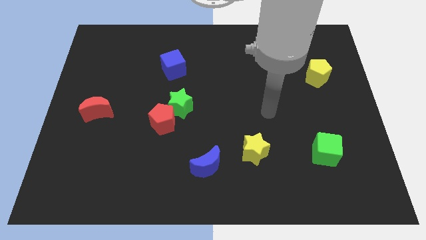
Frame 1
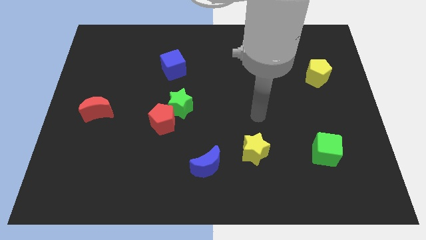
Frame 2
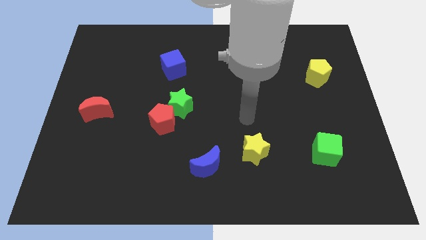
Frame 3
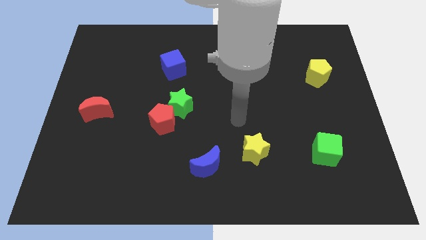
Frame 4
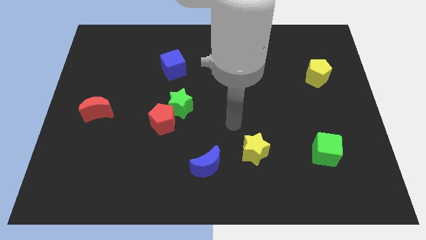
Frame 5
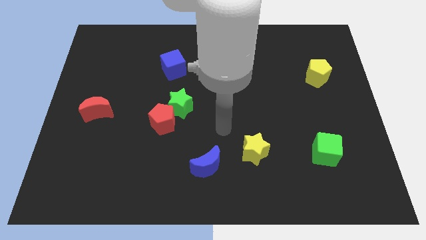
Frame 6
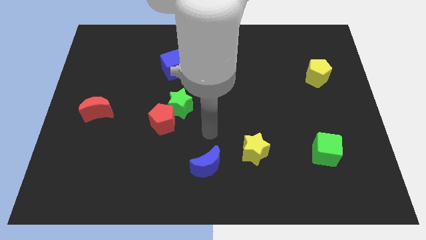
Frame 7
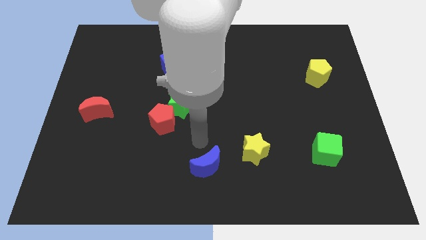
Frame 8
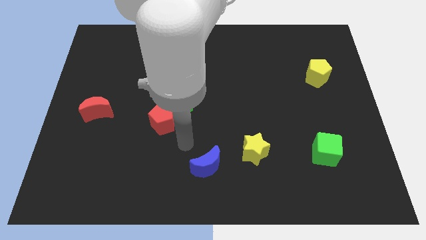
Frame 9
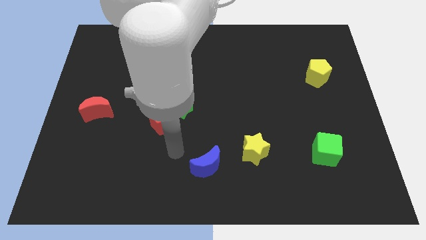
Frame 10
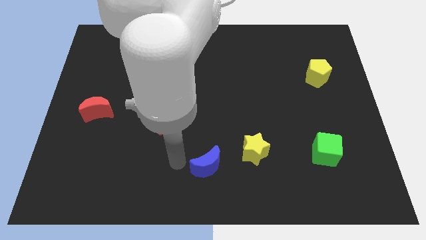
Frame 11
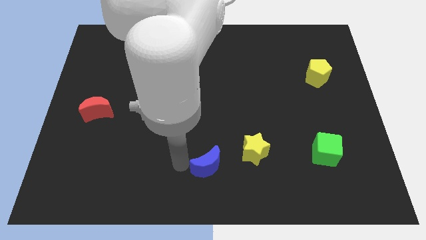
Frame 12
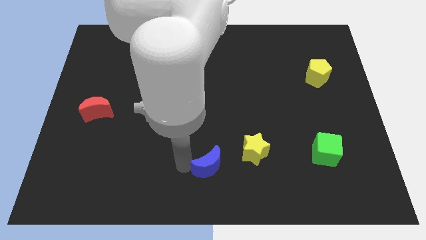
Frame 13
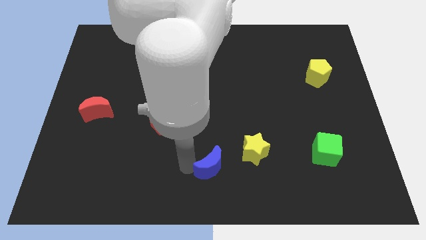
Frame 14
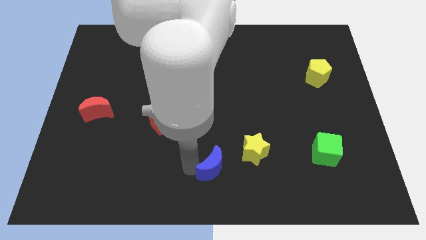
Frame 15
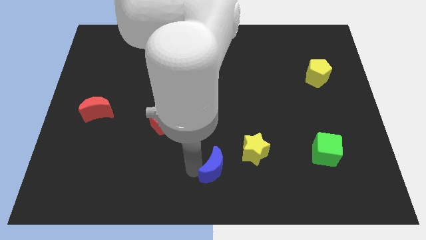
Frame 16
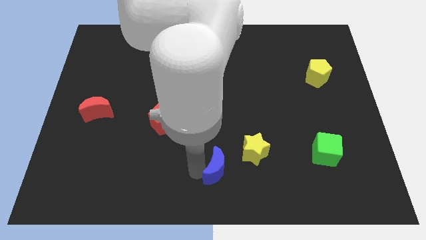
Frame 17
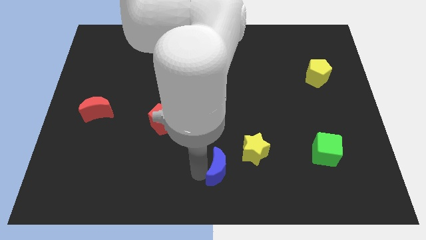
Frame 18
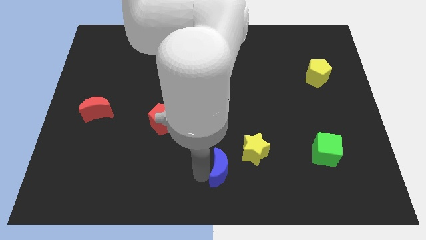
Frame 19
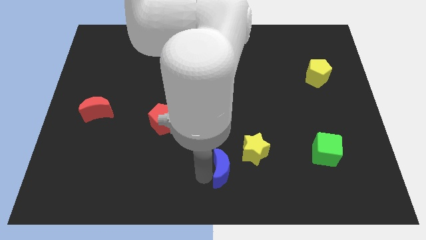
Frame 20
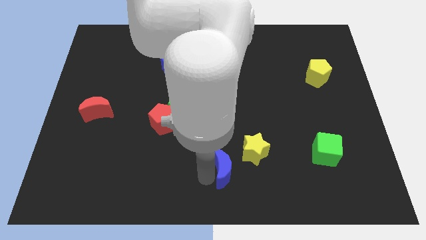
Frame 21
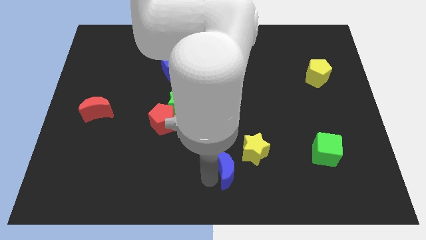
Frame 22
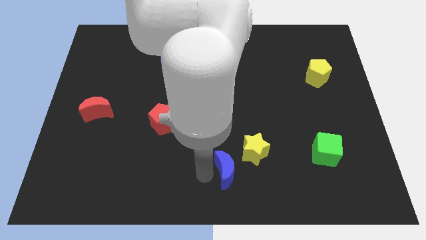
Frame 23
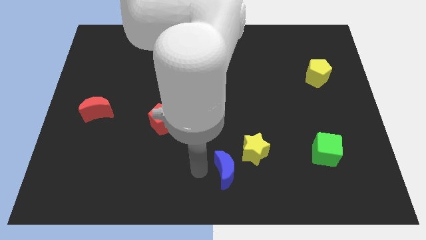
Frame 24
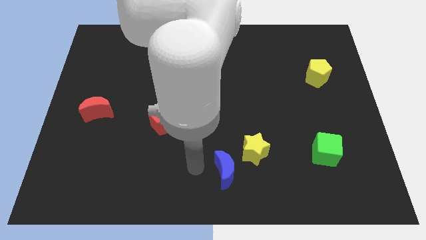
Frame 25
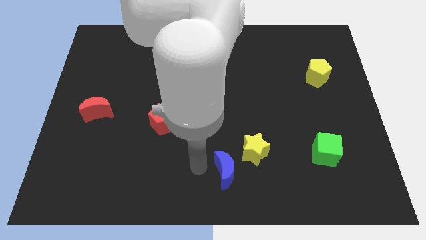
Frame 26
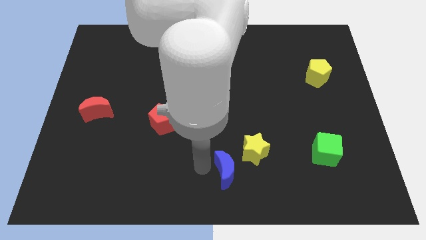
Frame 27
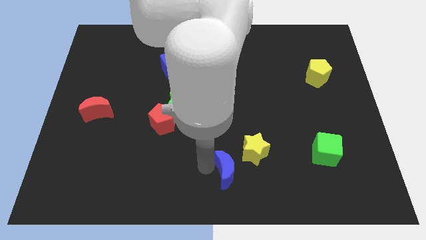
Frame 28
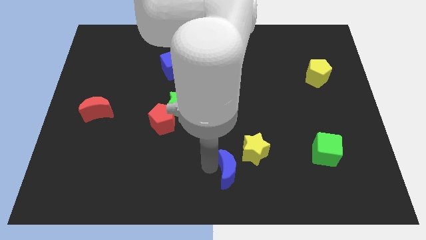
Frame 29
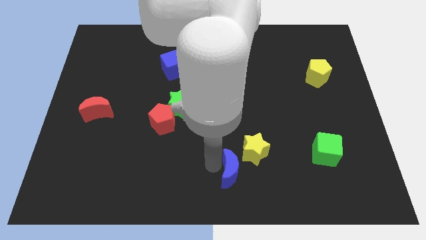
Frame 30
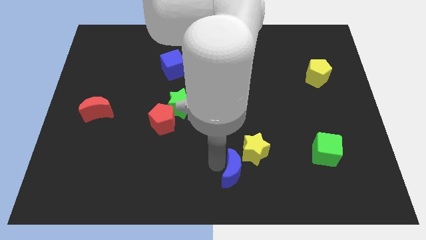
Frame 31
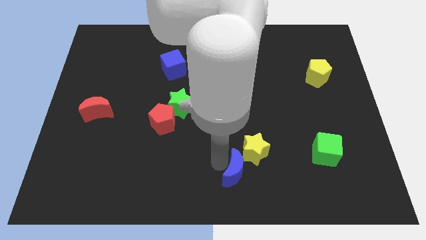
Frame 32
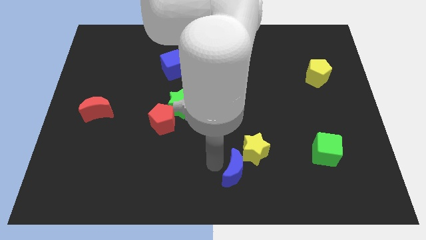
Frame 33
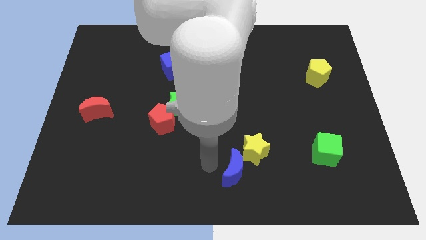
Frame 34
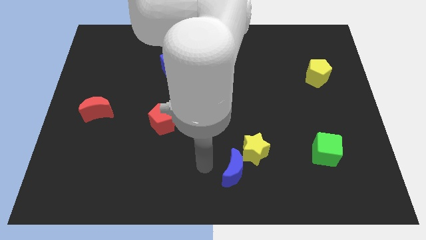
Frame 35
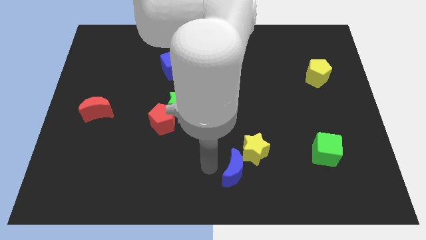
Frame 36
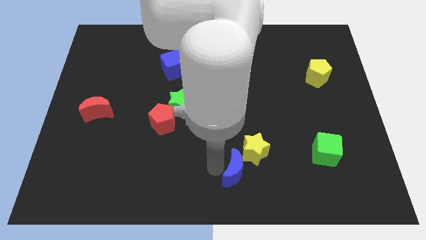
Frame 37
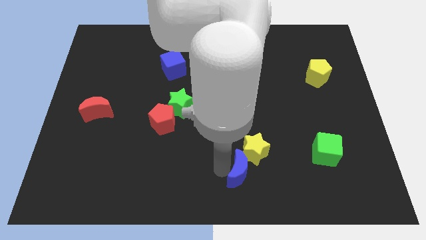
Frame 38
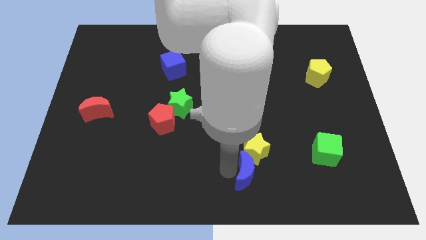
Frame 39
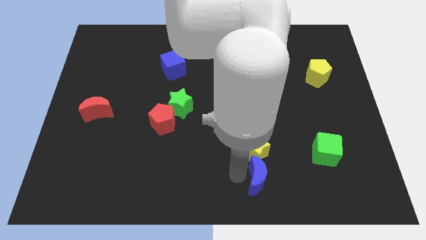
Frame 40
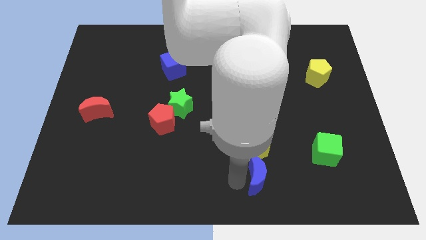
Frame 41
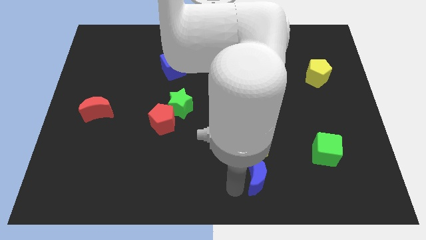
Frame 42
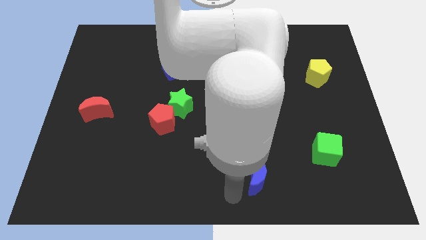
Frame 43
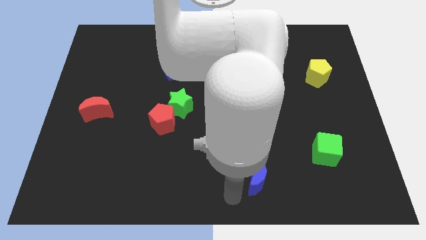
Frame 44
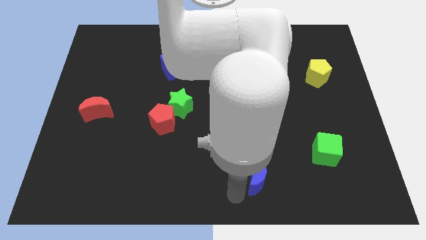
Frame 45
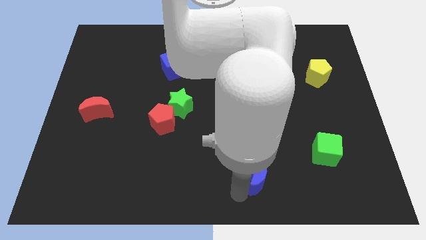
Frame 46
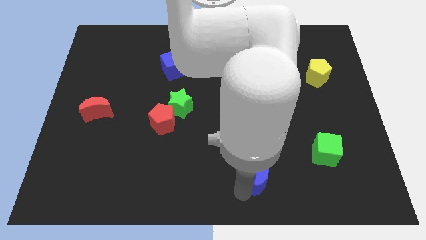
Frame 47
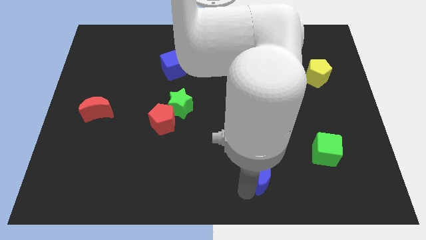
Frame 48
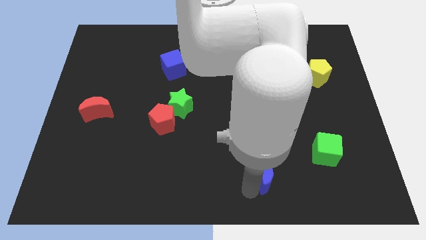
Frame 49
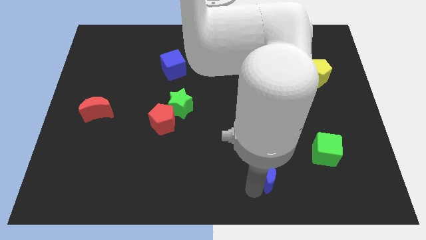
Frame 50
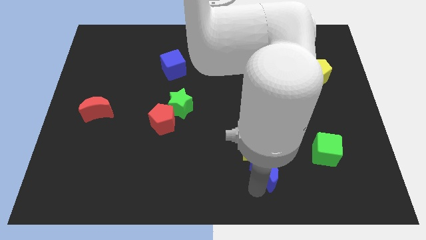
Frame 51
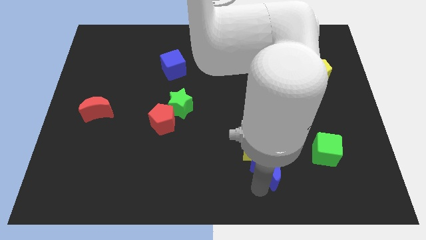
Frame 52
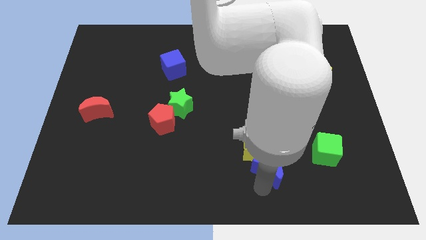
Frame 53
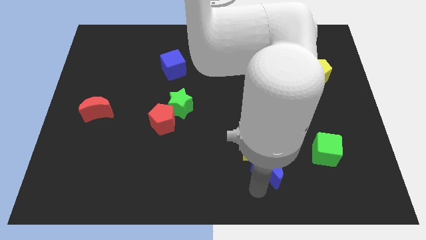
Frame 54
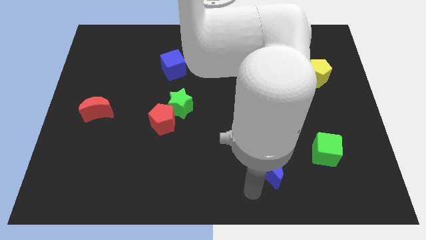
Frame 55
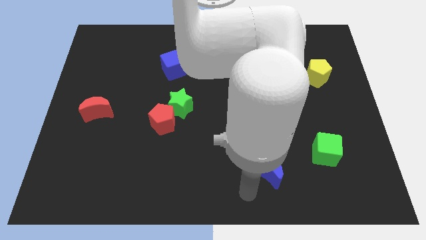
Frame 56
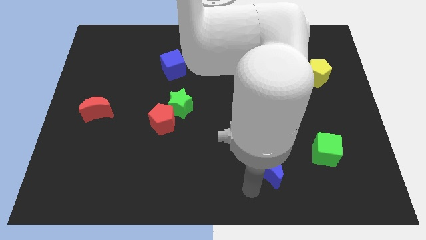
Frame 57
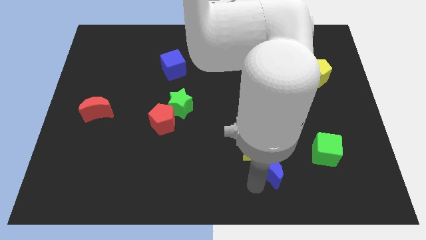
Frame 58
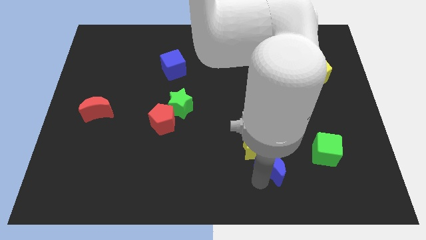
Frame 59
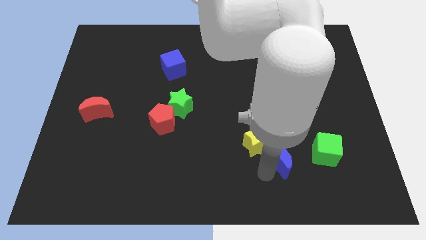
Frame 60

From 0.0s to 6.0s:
move the blue moon to the right of the yellow star

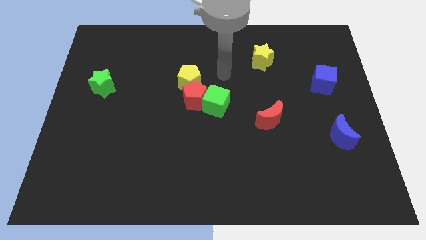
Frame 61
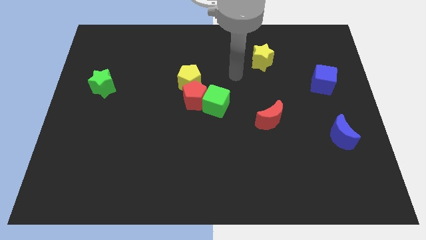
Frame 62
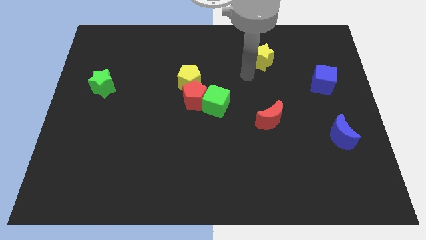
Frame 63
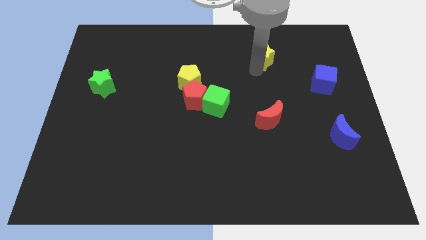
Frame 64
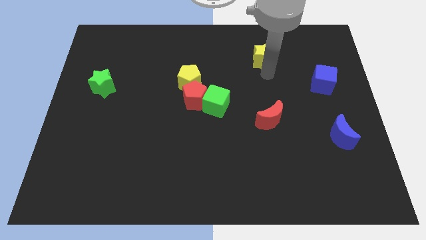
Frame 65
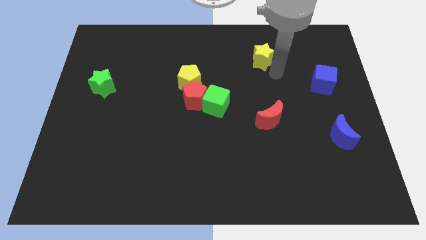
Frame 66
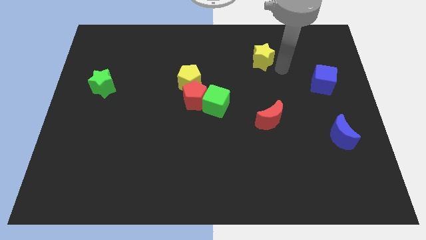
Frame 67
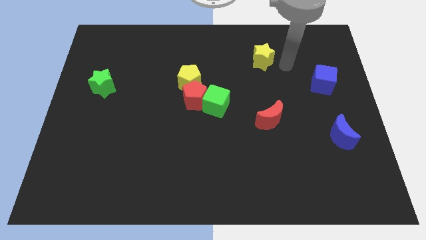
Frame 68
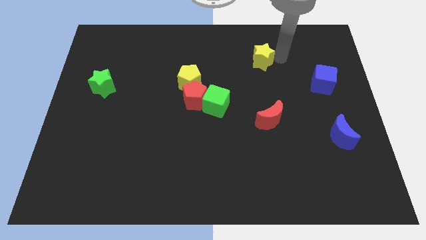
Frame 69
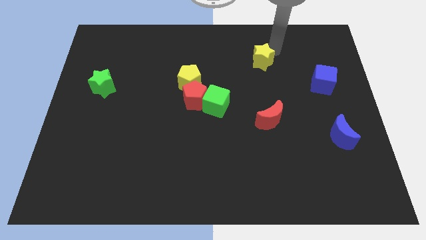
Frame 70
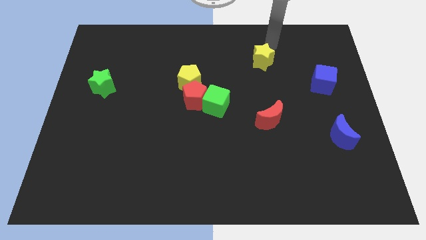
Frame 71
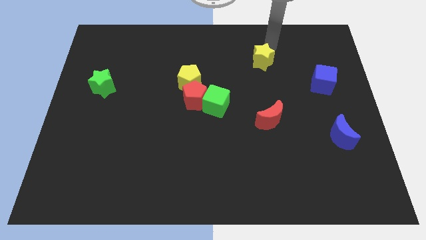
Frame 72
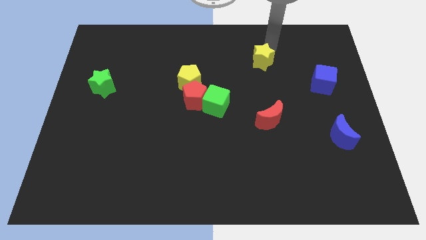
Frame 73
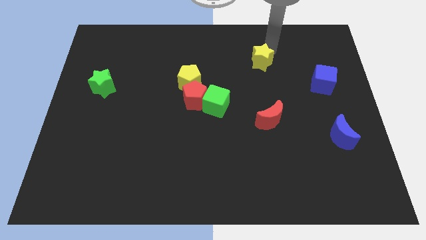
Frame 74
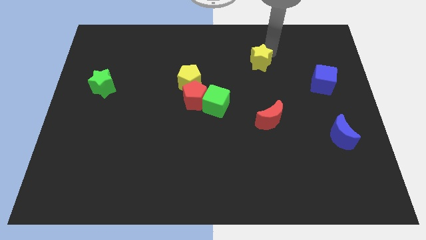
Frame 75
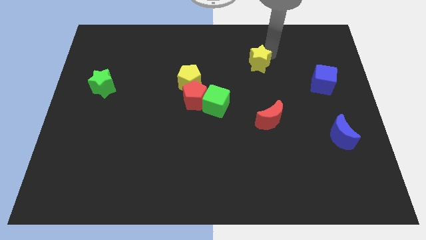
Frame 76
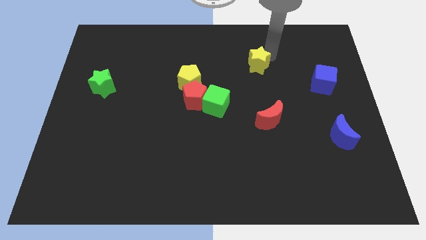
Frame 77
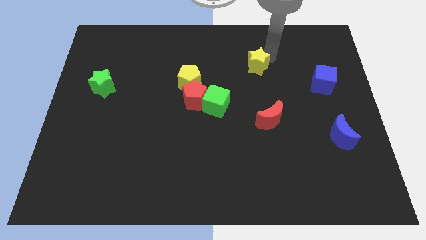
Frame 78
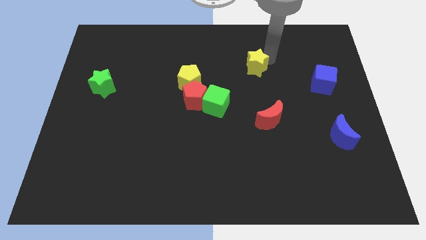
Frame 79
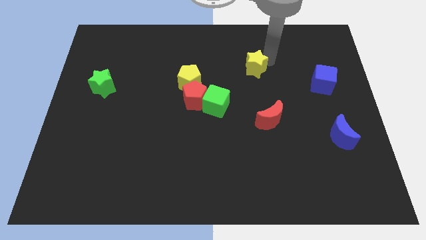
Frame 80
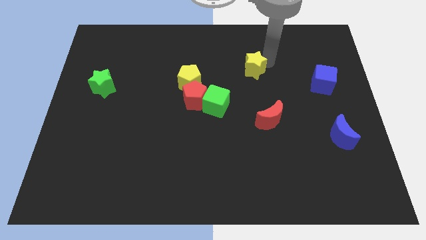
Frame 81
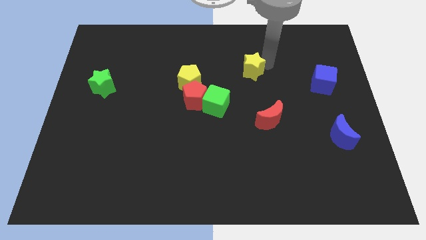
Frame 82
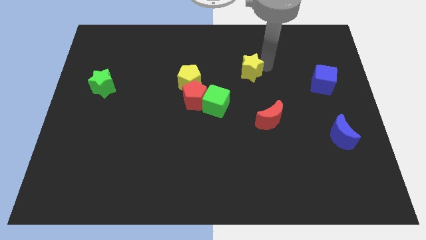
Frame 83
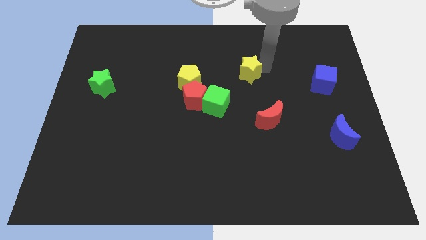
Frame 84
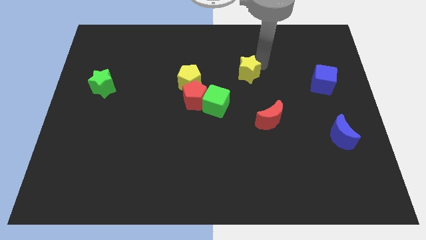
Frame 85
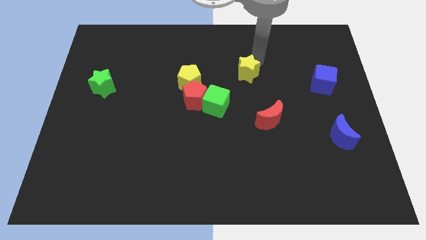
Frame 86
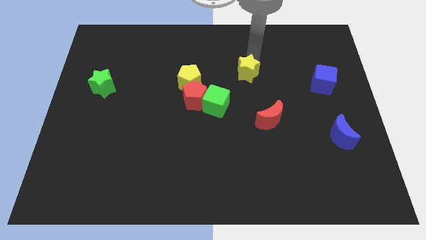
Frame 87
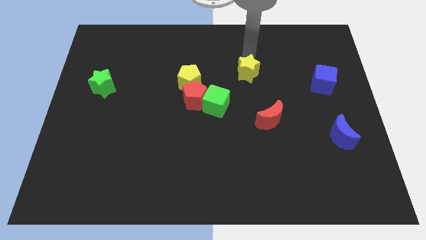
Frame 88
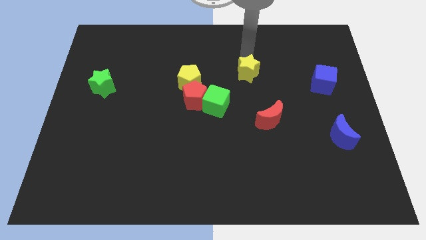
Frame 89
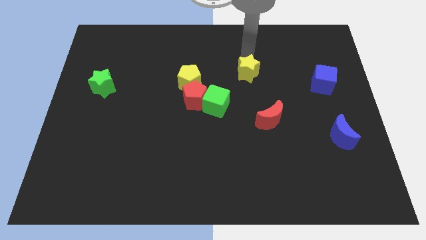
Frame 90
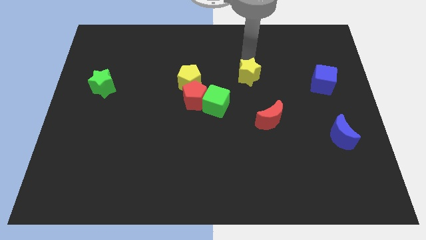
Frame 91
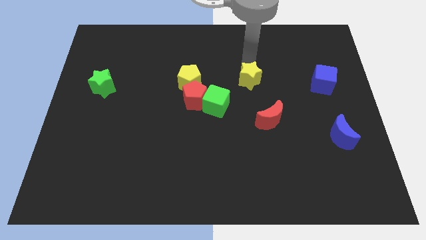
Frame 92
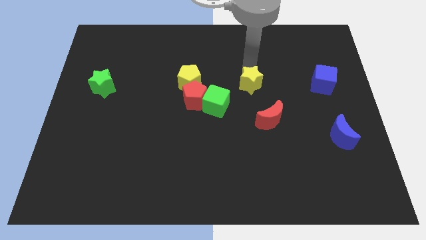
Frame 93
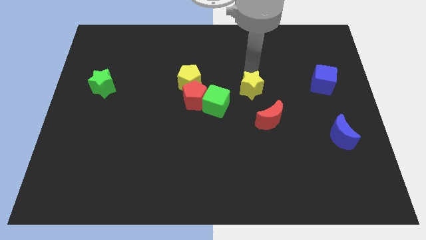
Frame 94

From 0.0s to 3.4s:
slide the yellow star diagonally up and to the left of the red moon
